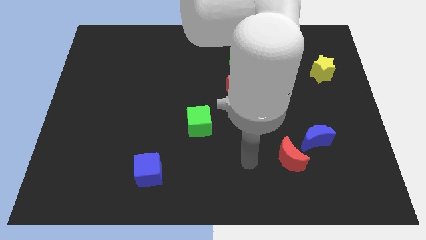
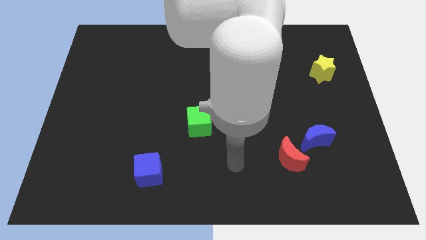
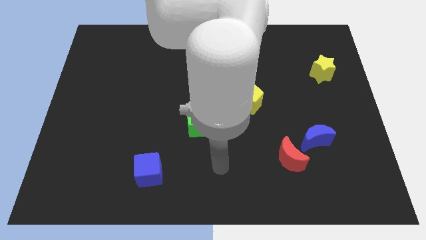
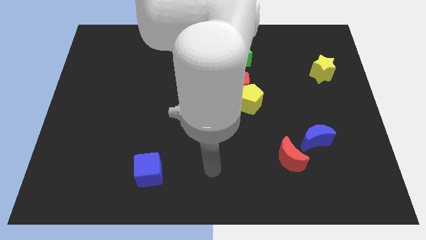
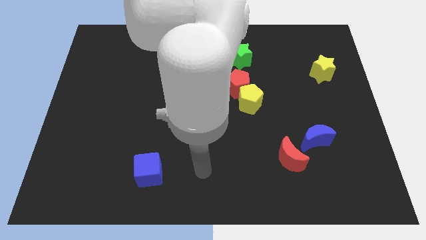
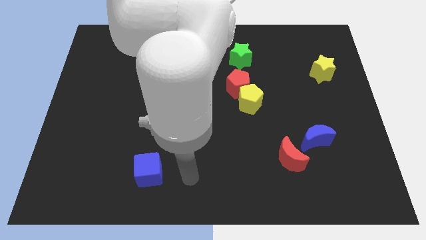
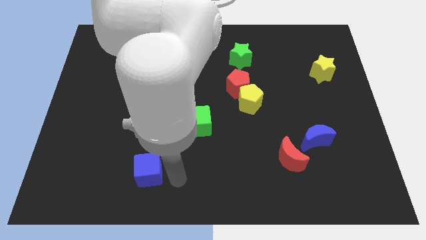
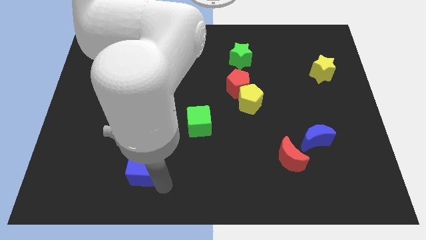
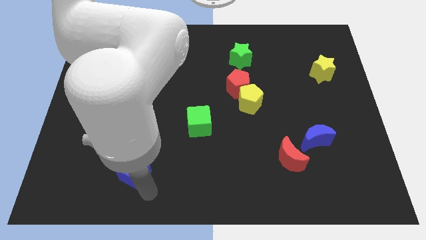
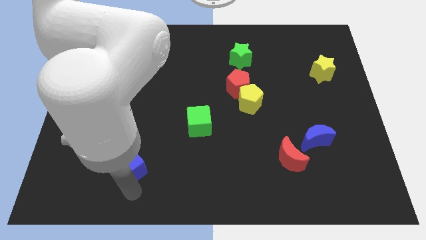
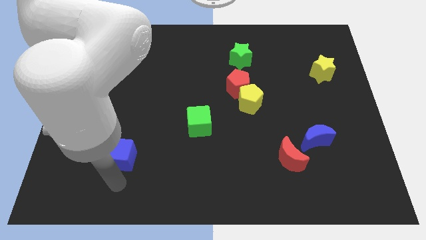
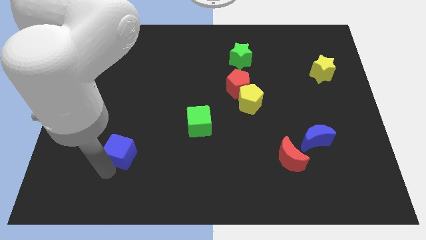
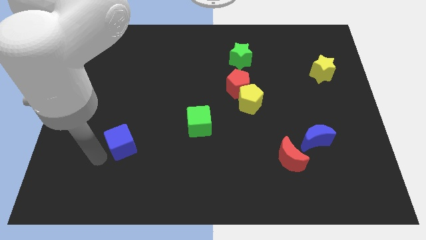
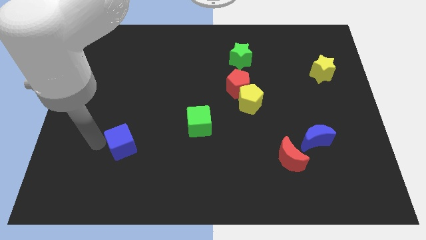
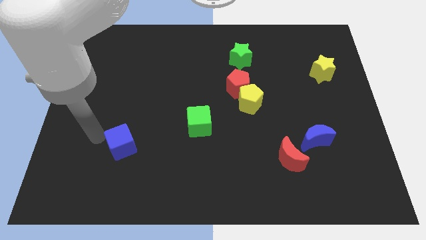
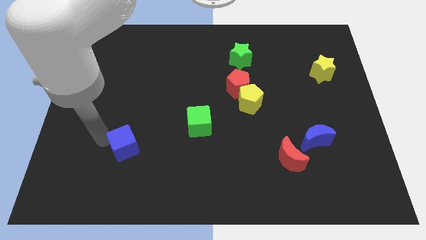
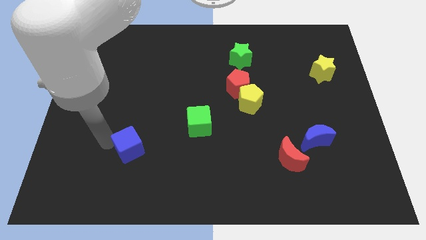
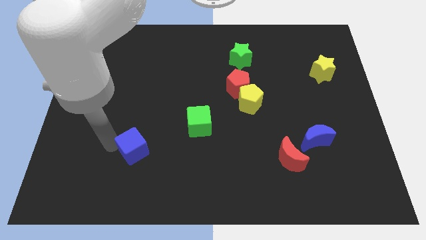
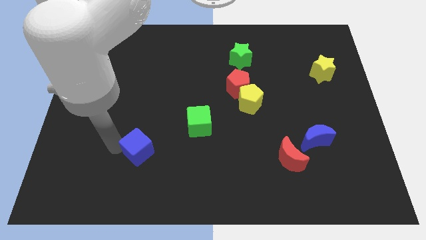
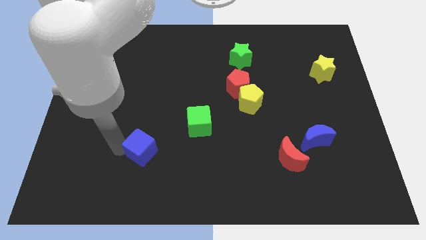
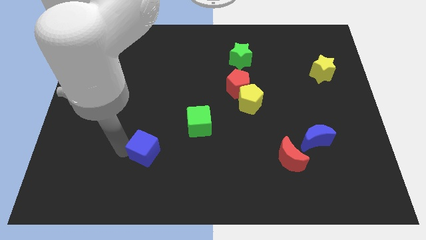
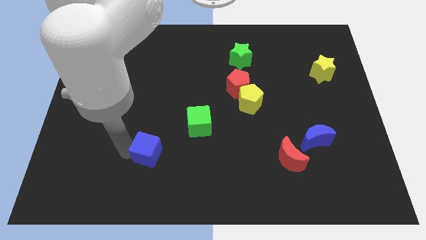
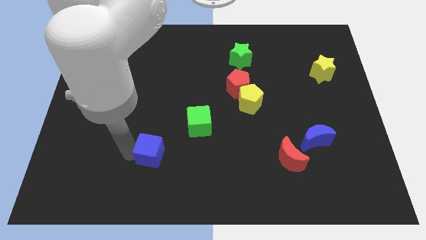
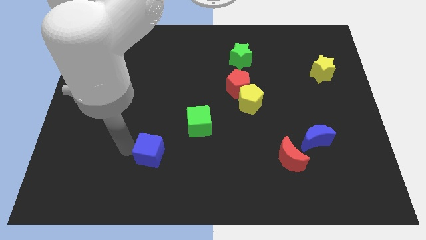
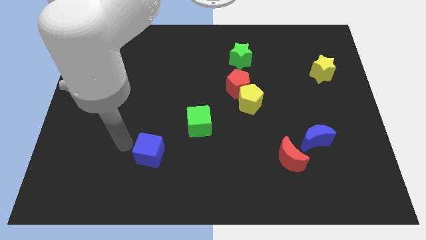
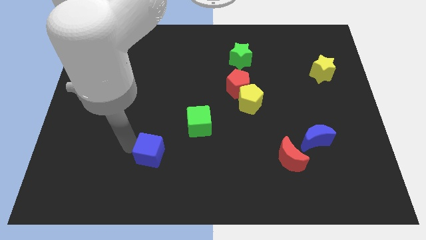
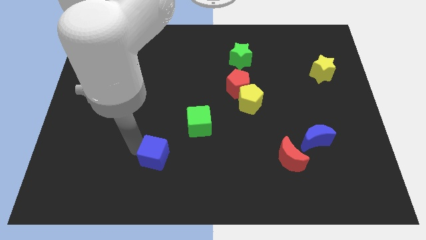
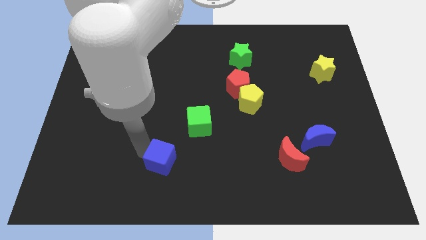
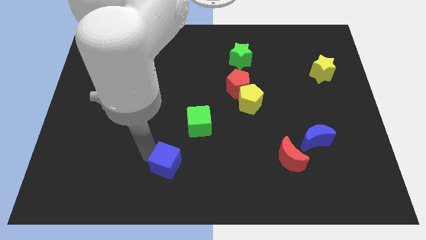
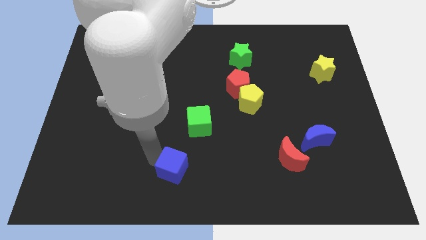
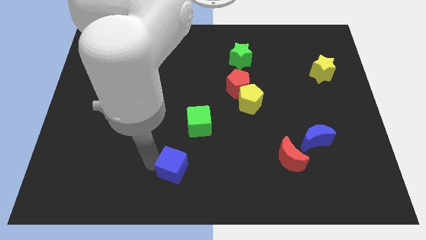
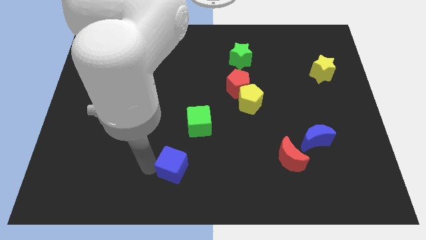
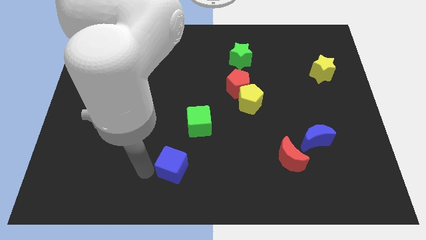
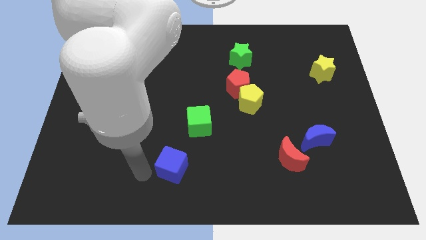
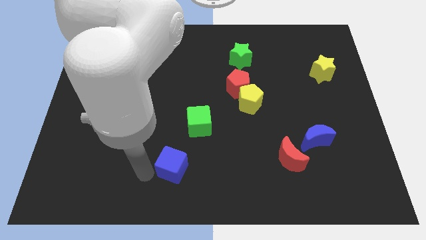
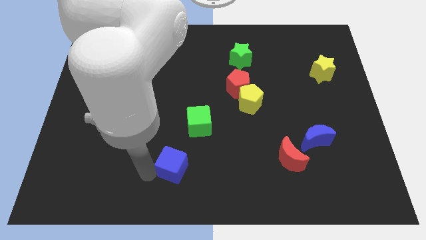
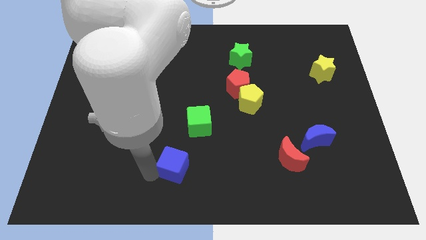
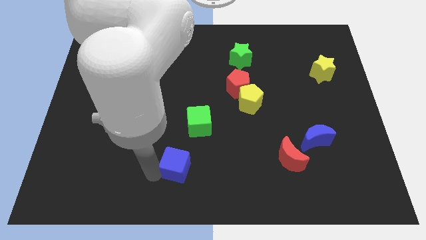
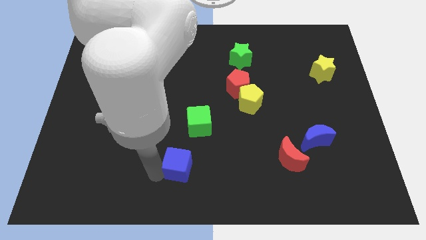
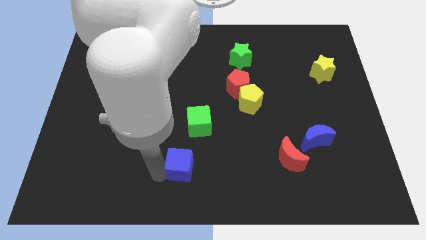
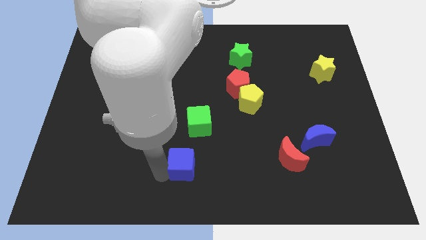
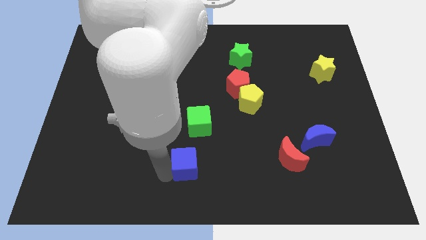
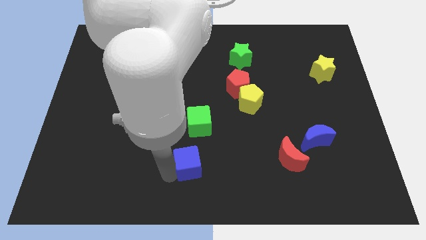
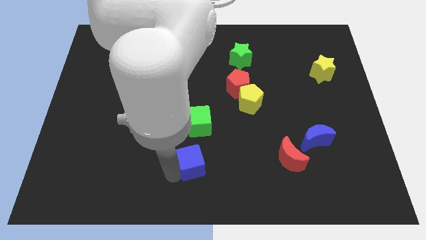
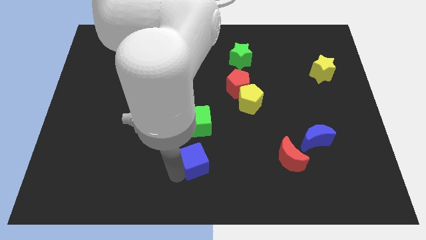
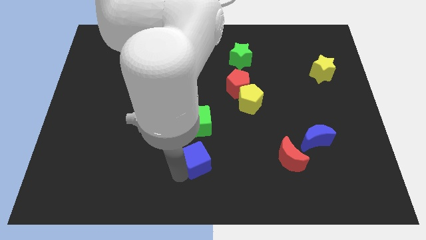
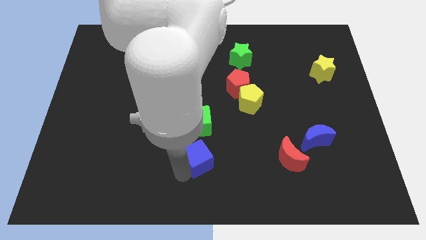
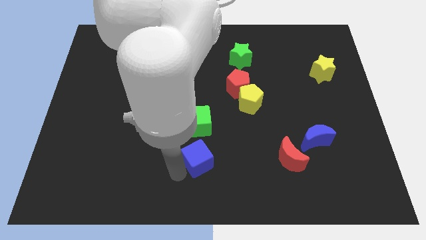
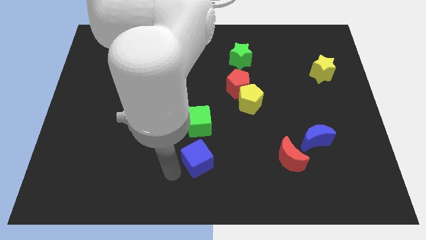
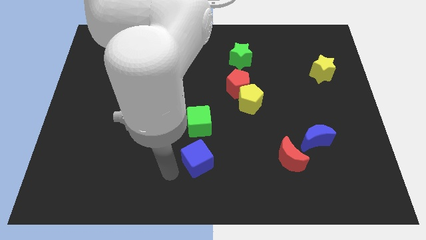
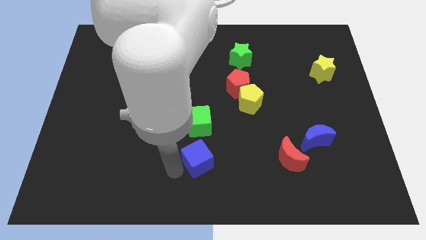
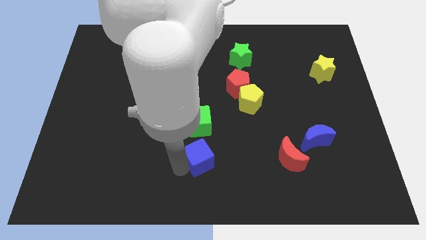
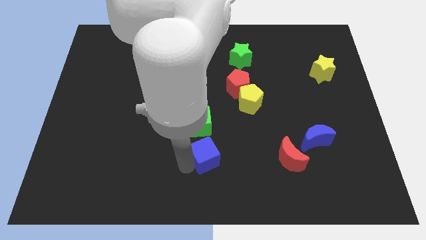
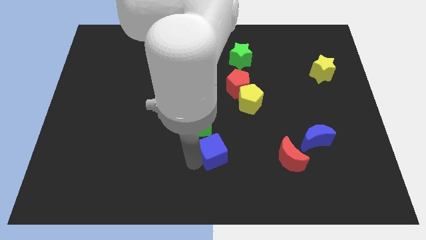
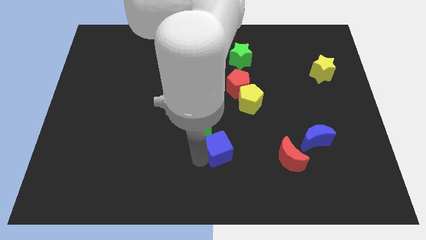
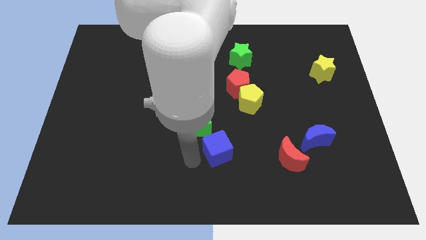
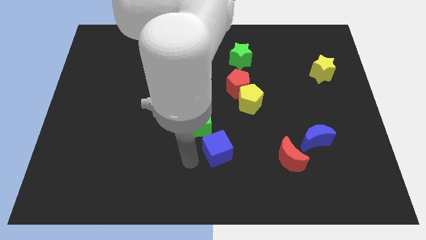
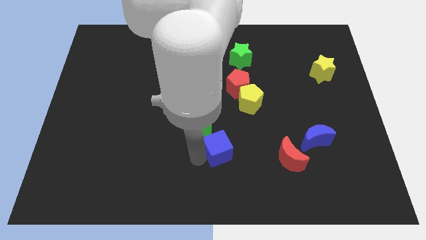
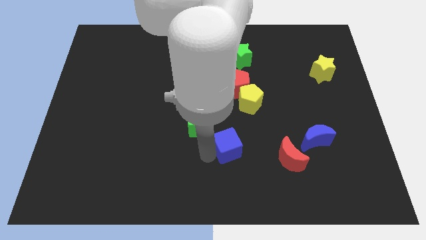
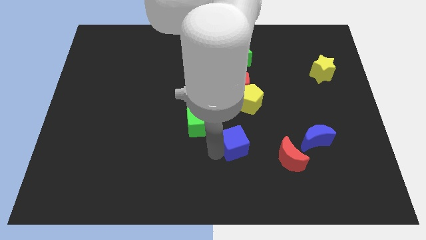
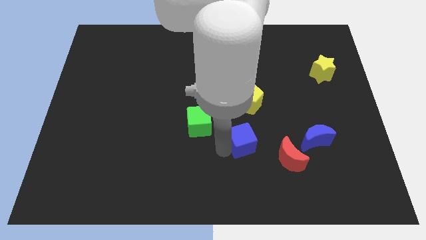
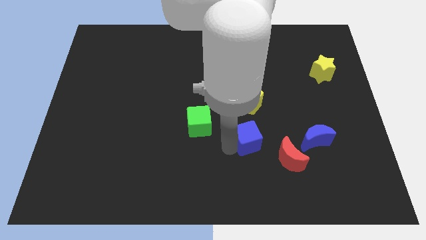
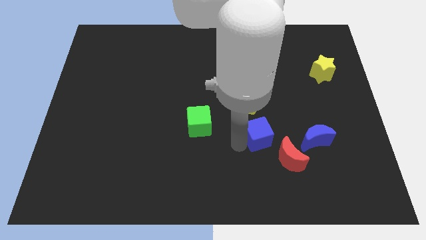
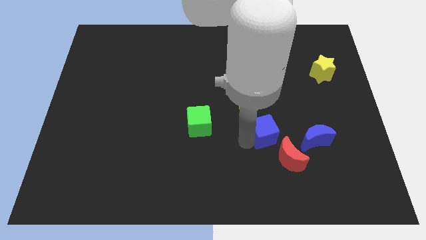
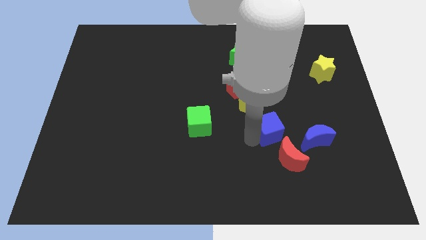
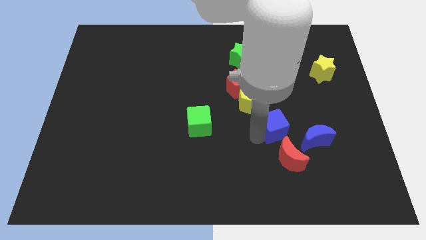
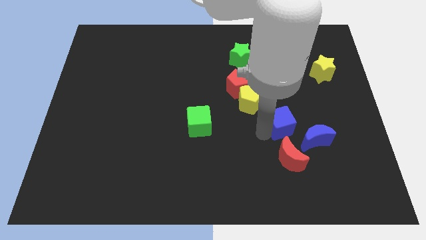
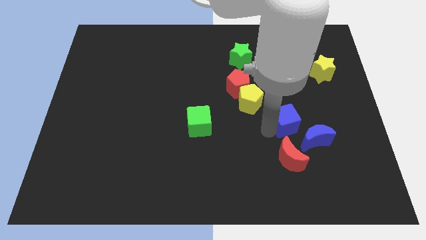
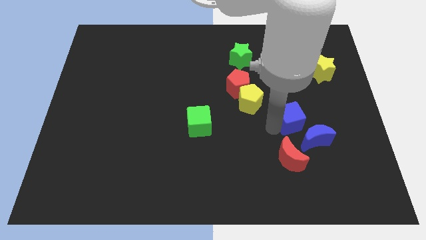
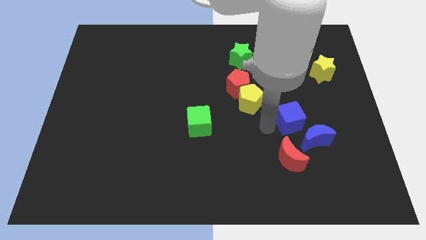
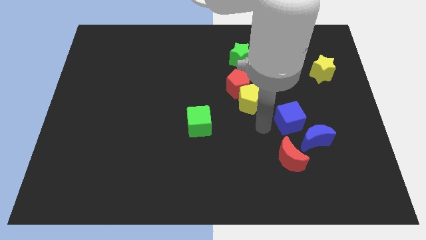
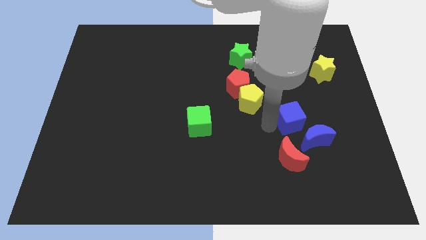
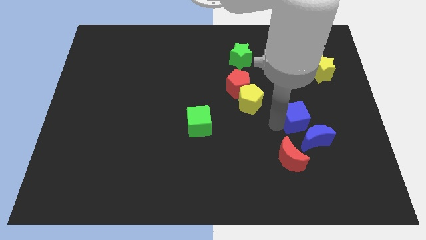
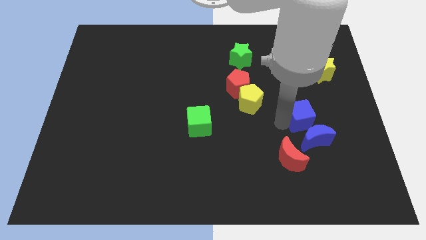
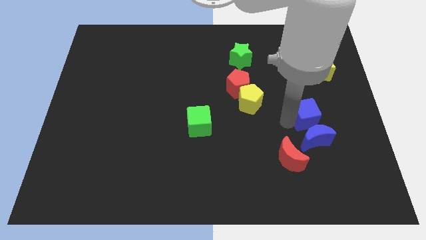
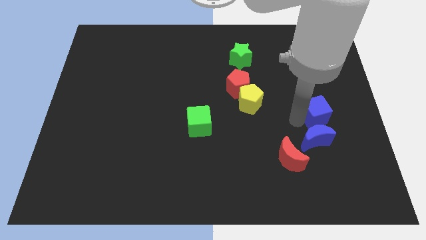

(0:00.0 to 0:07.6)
put the blue cube to the bottom of the yellow star
